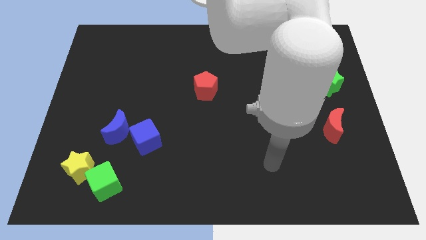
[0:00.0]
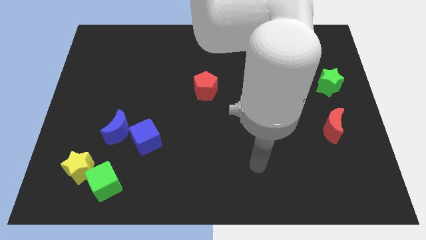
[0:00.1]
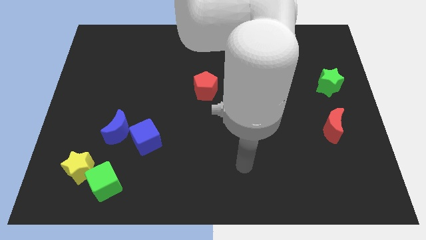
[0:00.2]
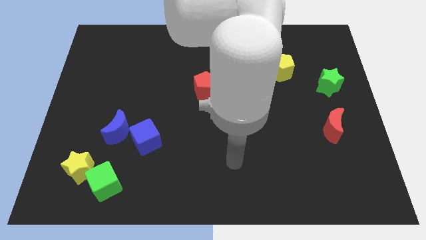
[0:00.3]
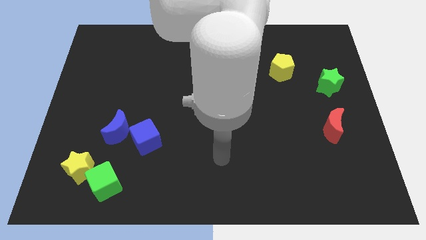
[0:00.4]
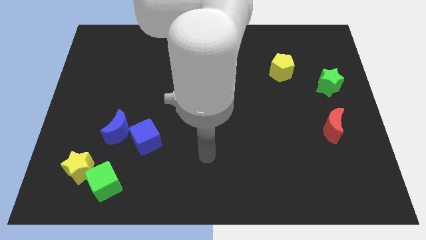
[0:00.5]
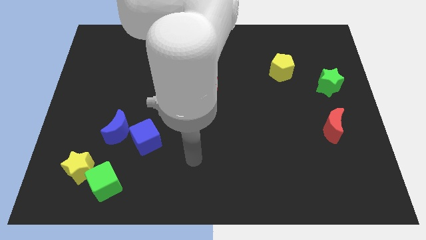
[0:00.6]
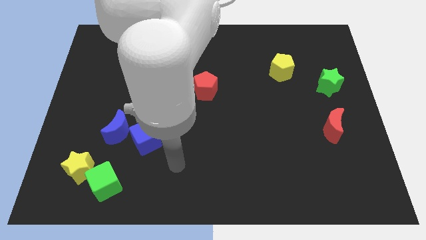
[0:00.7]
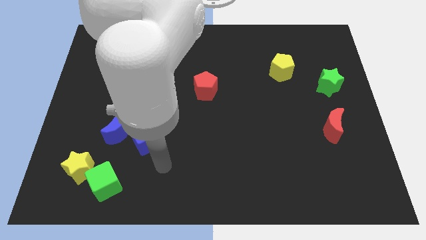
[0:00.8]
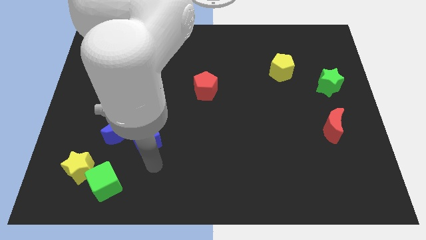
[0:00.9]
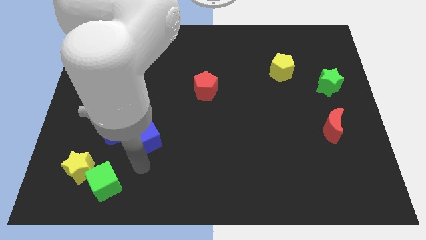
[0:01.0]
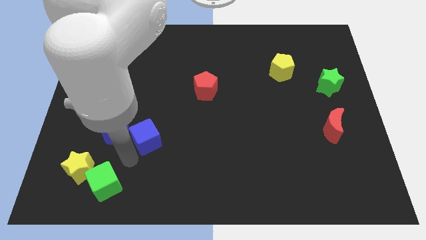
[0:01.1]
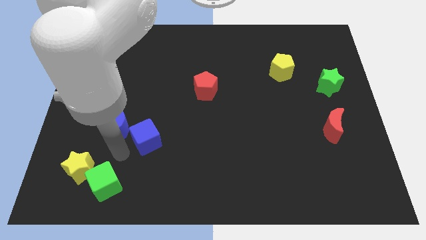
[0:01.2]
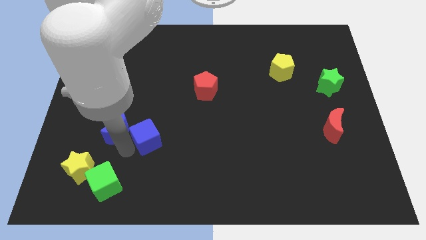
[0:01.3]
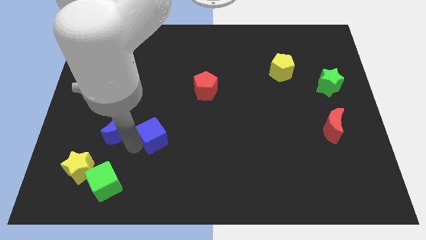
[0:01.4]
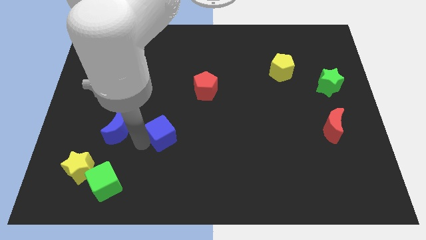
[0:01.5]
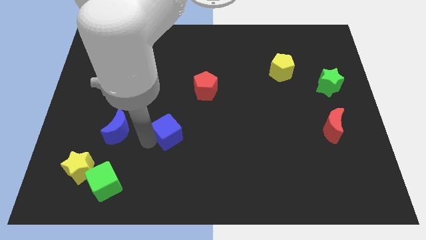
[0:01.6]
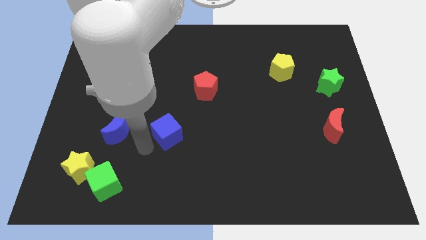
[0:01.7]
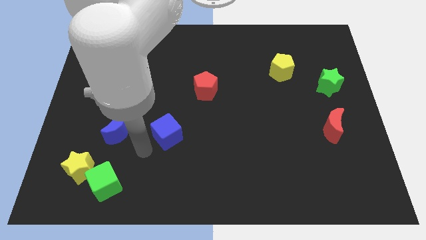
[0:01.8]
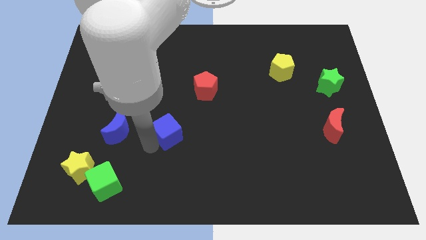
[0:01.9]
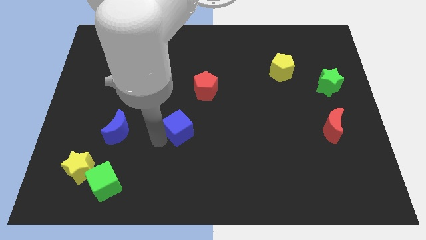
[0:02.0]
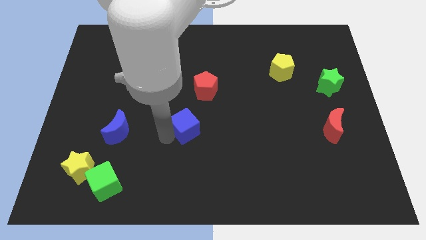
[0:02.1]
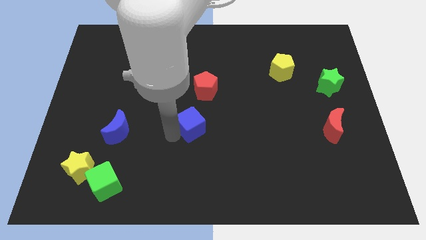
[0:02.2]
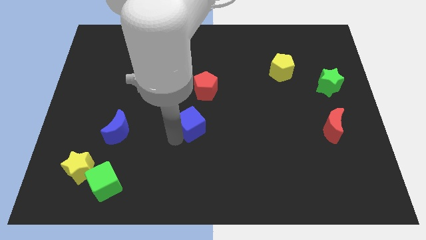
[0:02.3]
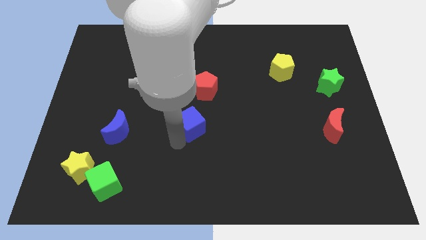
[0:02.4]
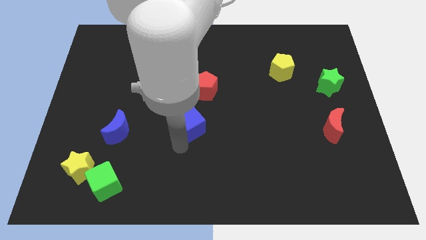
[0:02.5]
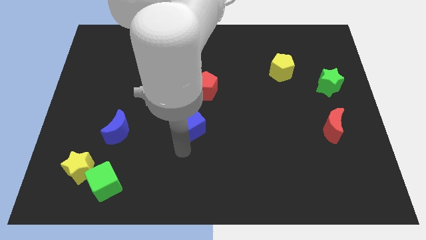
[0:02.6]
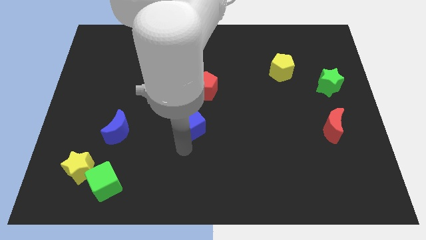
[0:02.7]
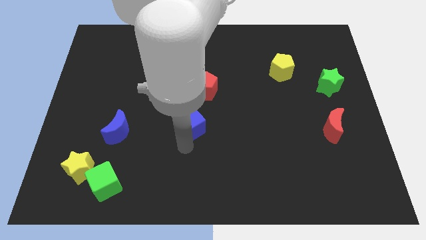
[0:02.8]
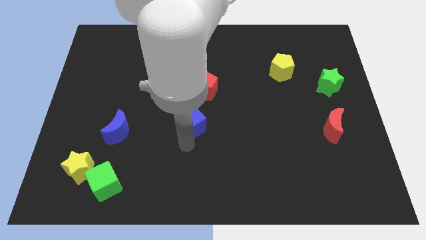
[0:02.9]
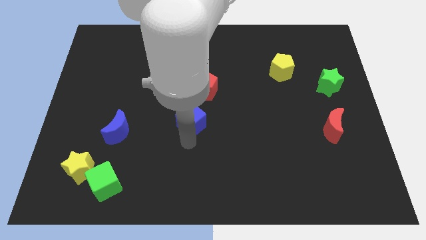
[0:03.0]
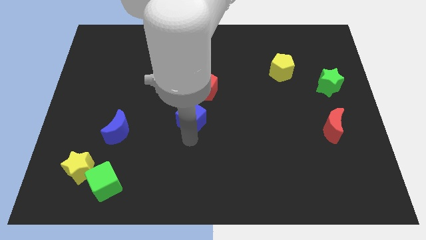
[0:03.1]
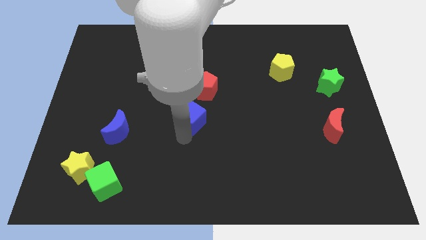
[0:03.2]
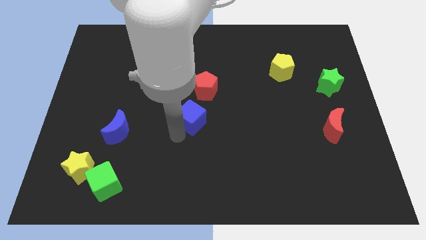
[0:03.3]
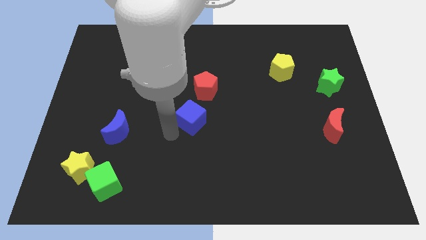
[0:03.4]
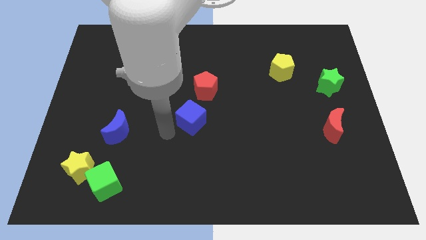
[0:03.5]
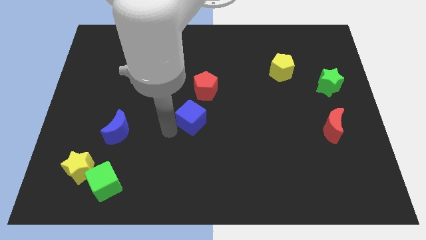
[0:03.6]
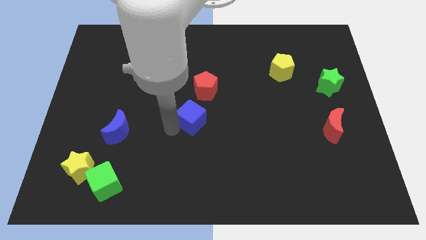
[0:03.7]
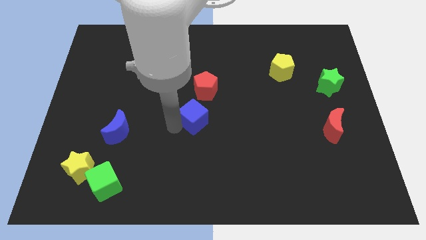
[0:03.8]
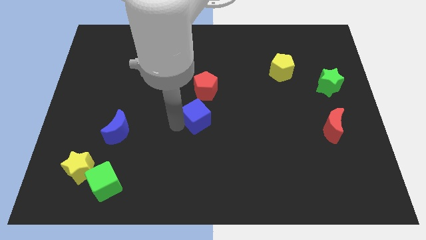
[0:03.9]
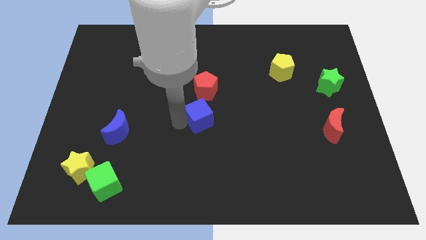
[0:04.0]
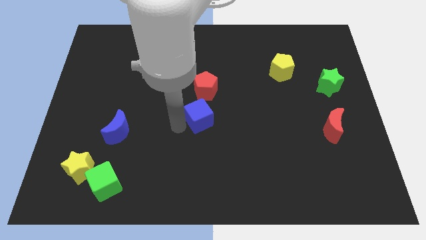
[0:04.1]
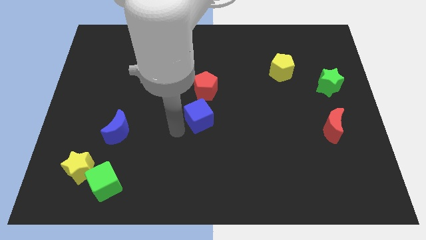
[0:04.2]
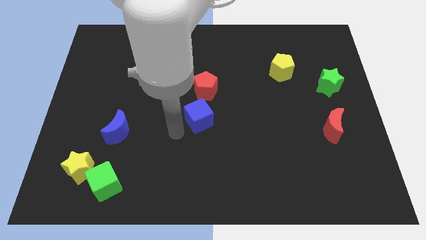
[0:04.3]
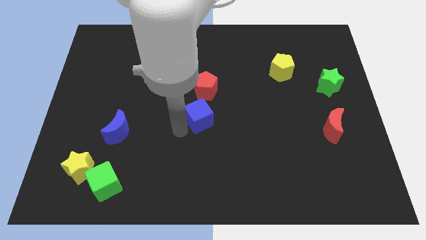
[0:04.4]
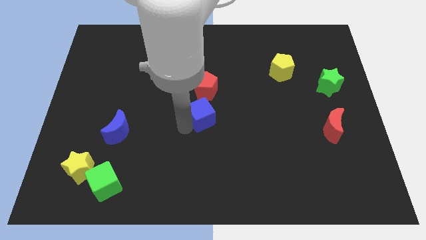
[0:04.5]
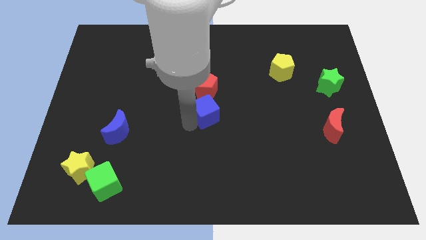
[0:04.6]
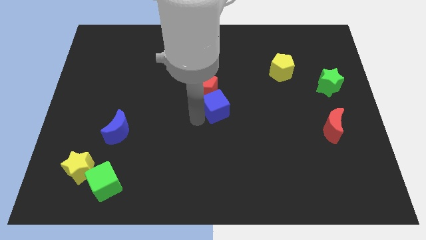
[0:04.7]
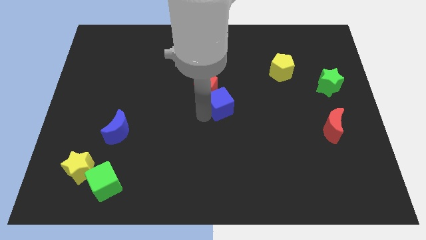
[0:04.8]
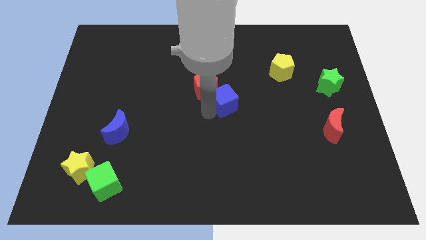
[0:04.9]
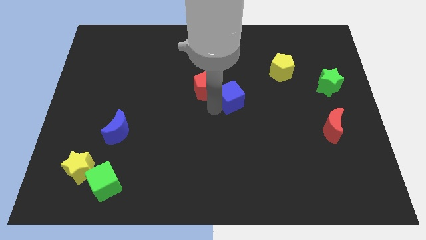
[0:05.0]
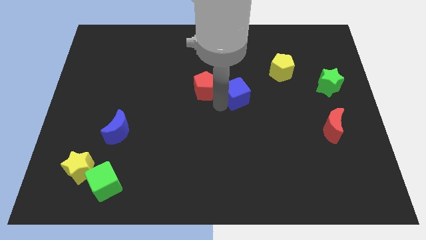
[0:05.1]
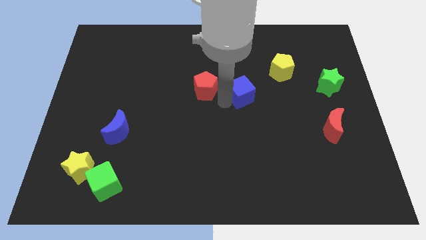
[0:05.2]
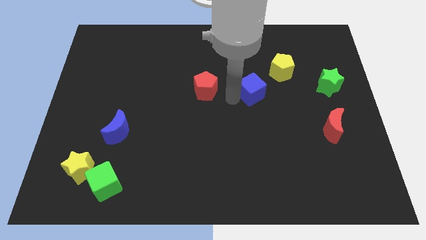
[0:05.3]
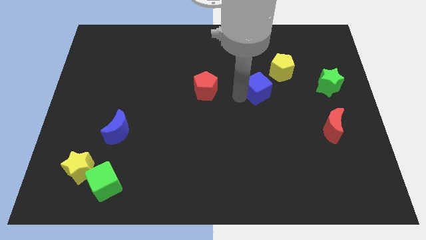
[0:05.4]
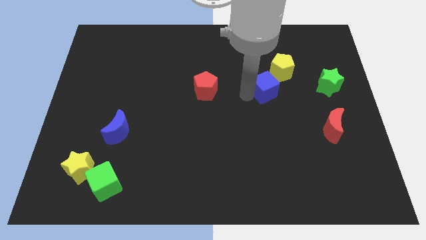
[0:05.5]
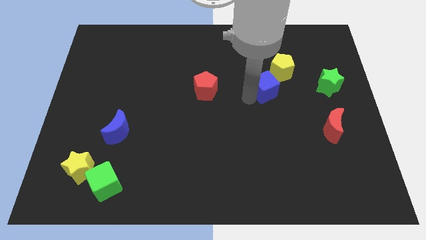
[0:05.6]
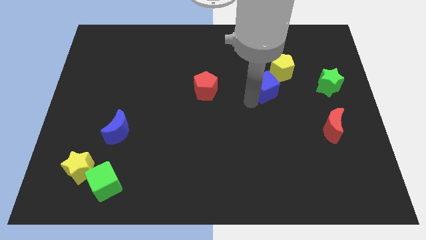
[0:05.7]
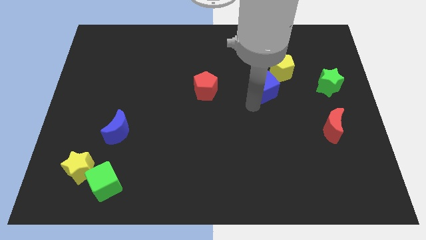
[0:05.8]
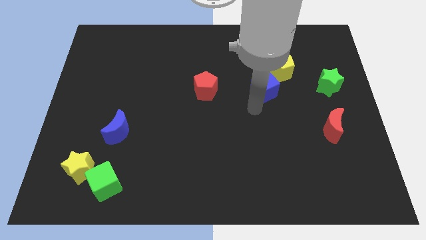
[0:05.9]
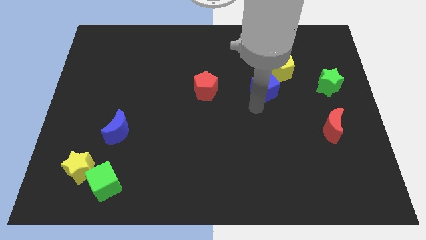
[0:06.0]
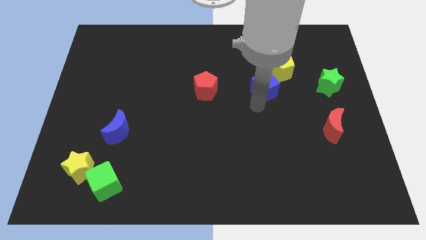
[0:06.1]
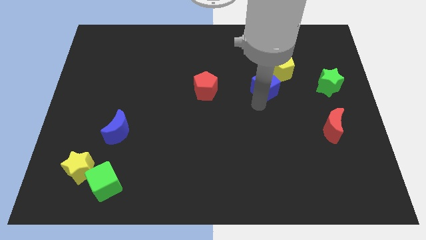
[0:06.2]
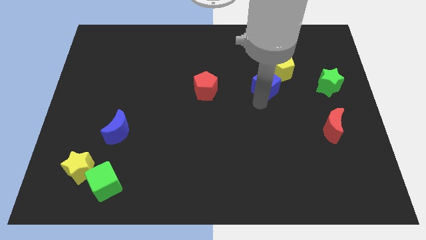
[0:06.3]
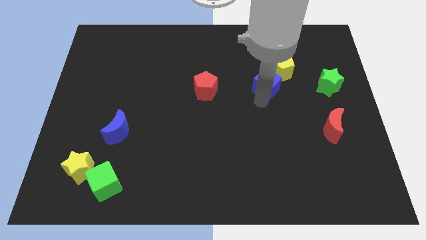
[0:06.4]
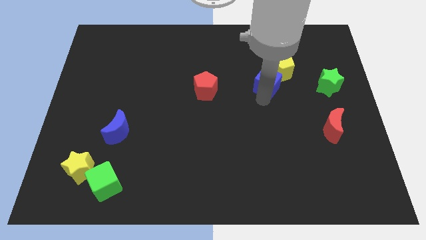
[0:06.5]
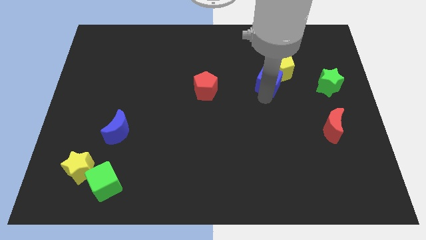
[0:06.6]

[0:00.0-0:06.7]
push the blue cube to the yellow pentagon

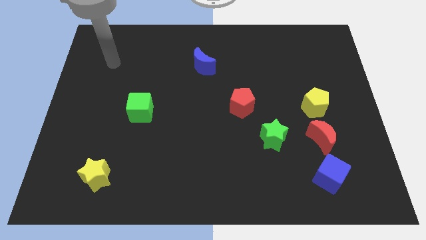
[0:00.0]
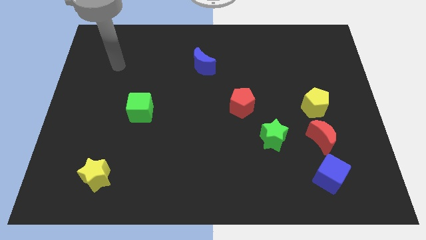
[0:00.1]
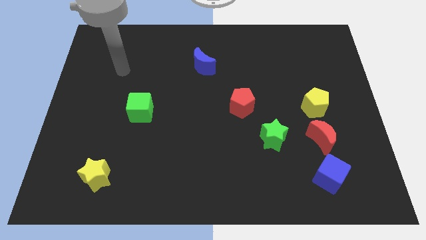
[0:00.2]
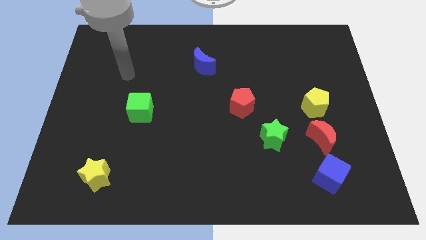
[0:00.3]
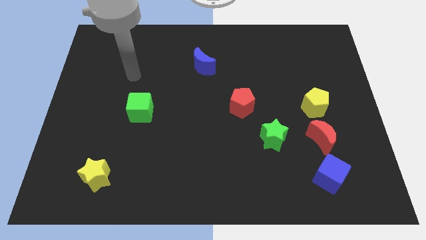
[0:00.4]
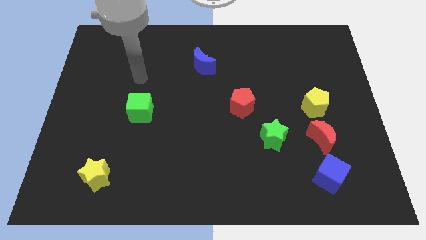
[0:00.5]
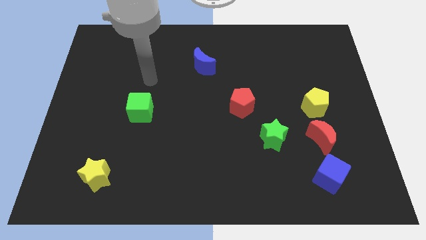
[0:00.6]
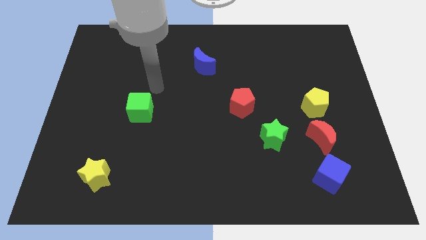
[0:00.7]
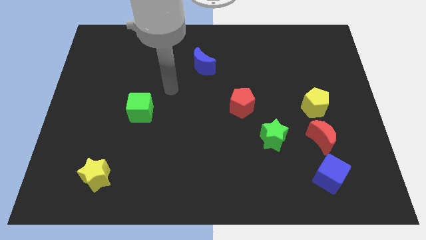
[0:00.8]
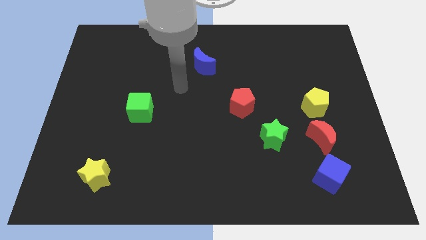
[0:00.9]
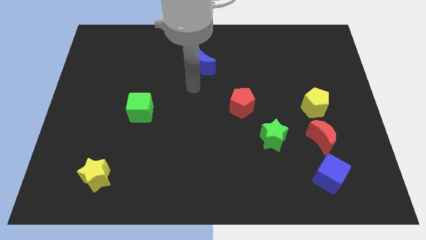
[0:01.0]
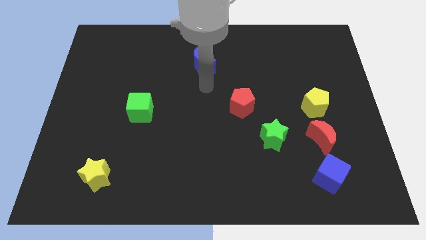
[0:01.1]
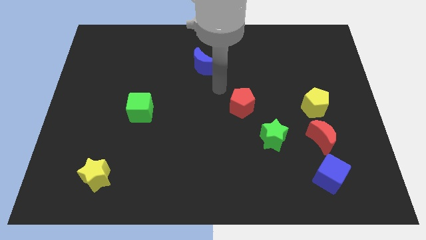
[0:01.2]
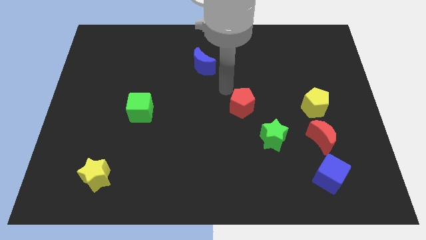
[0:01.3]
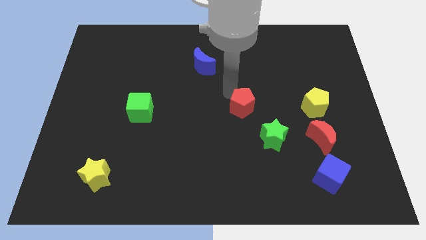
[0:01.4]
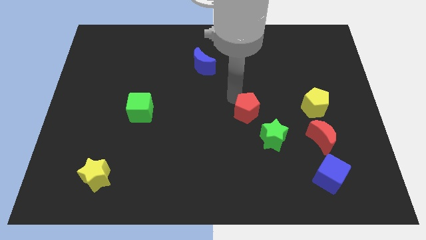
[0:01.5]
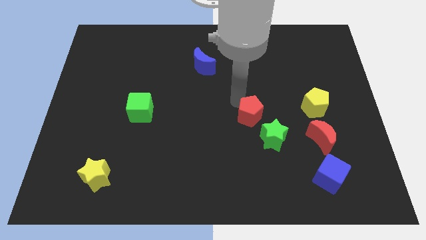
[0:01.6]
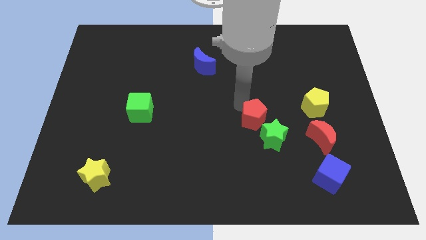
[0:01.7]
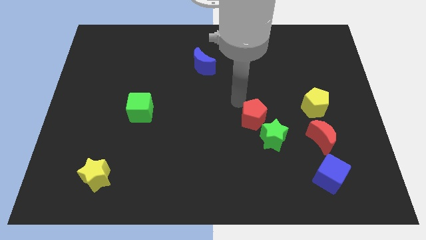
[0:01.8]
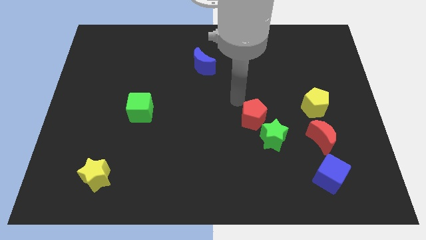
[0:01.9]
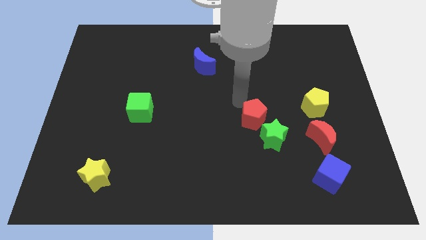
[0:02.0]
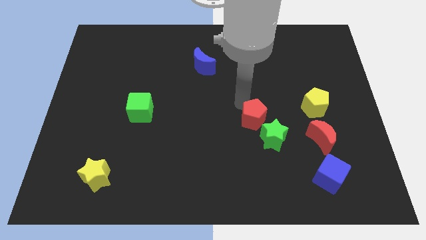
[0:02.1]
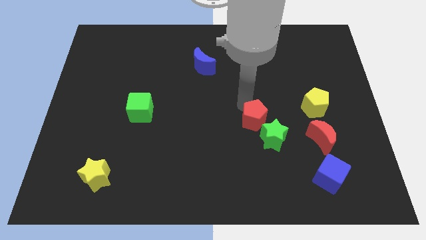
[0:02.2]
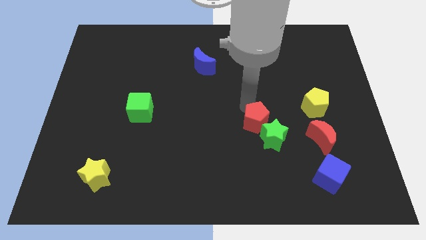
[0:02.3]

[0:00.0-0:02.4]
put the red pentagon to the green star
